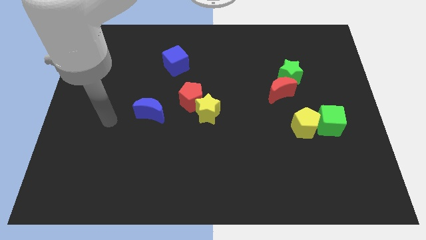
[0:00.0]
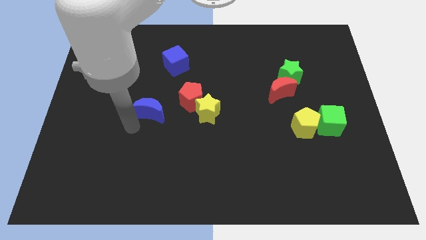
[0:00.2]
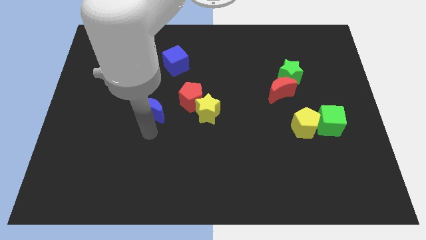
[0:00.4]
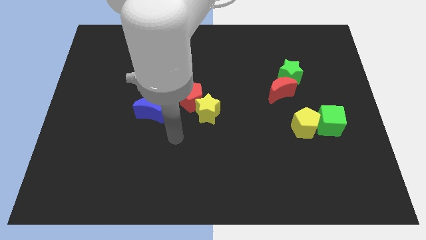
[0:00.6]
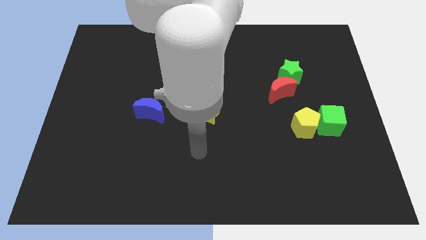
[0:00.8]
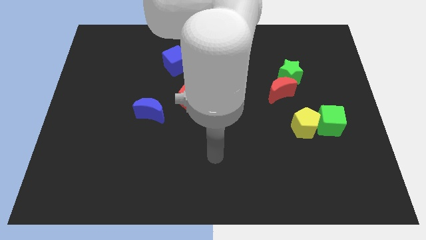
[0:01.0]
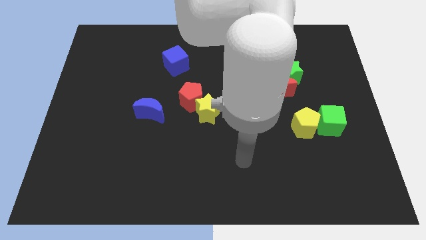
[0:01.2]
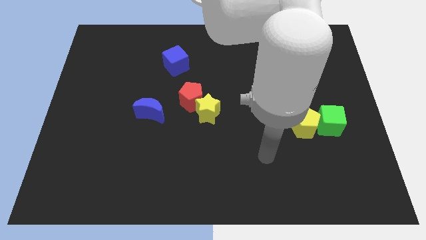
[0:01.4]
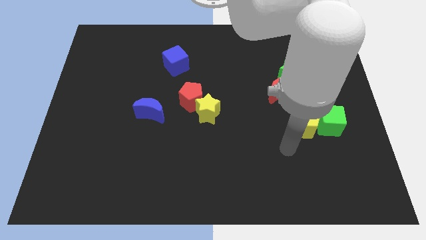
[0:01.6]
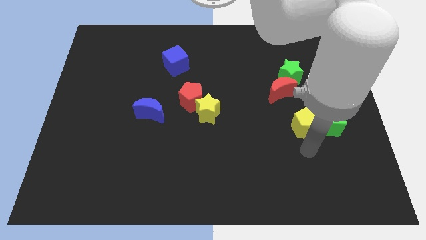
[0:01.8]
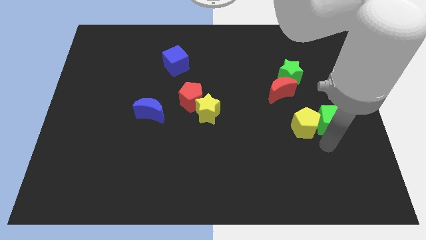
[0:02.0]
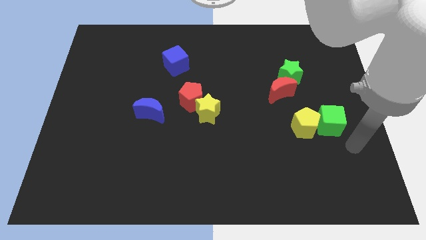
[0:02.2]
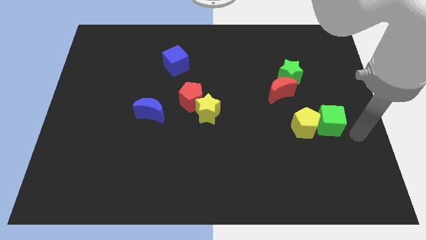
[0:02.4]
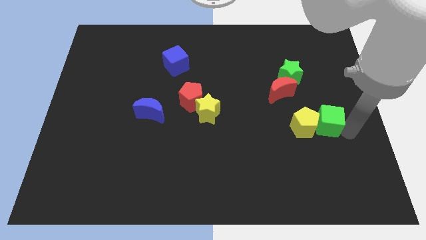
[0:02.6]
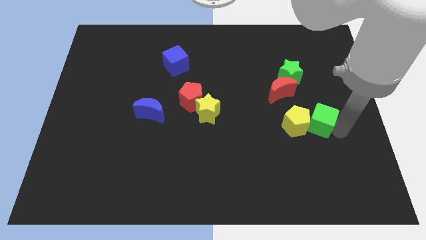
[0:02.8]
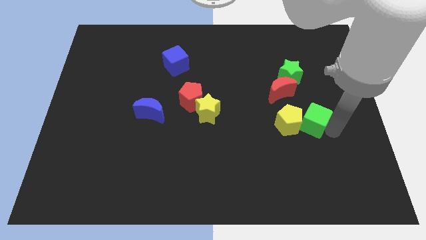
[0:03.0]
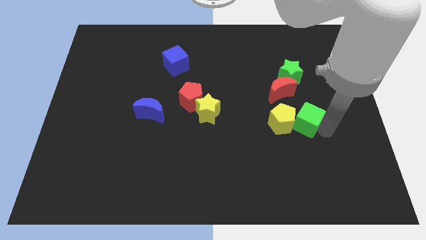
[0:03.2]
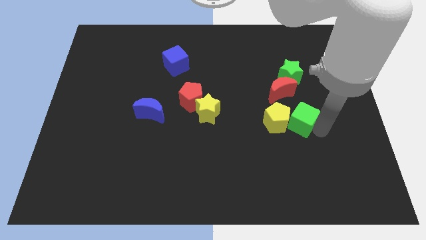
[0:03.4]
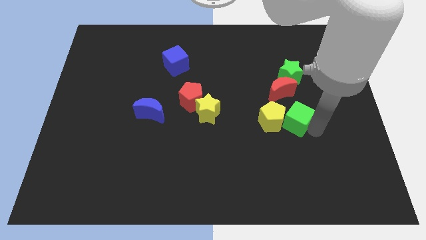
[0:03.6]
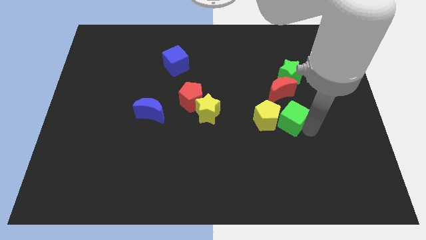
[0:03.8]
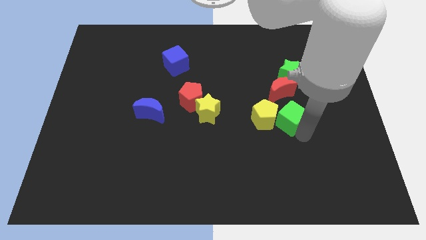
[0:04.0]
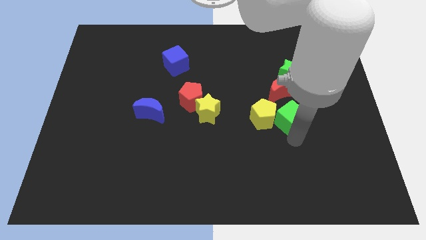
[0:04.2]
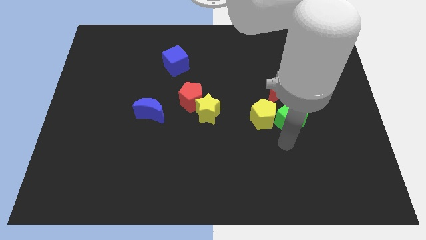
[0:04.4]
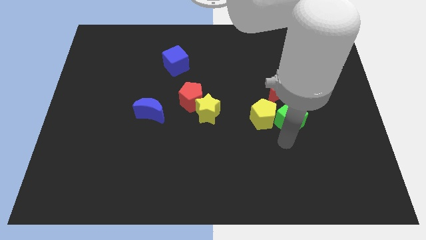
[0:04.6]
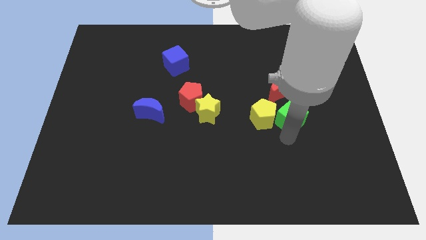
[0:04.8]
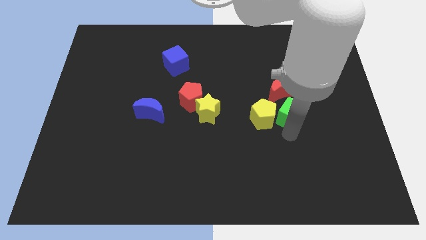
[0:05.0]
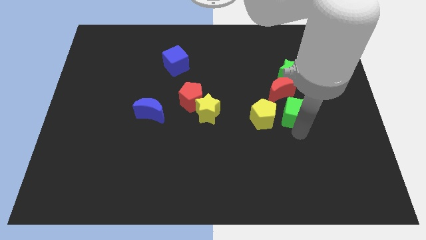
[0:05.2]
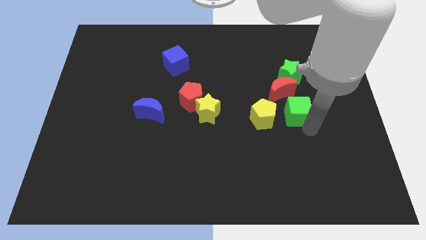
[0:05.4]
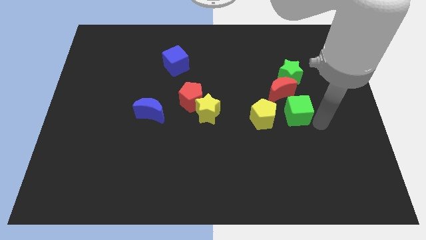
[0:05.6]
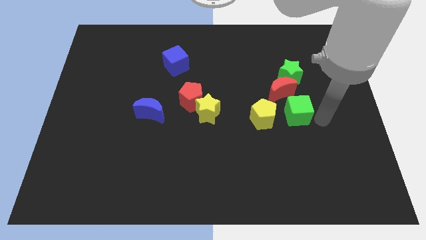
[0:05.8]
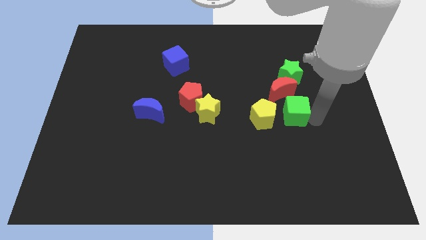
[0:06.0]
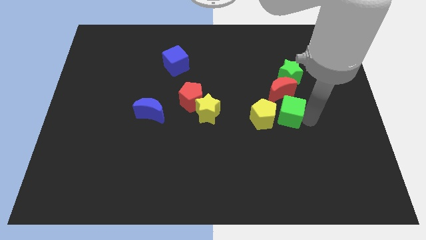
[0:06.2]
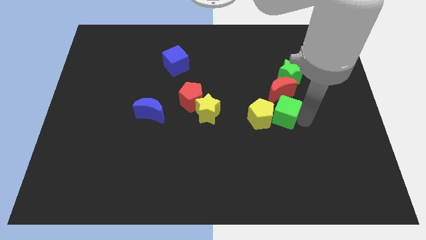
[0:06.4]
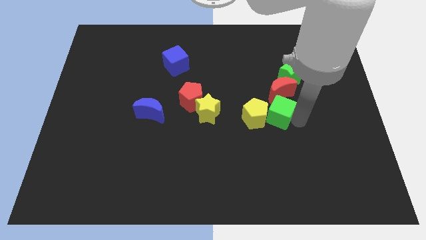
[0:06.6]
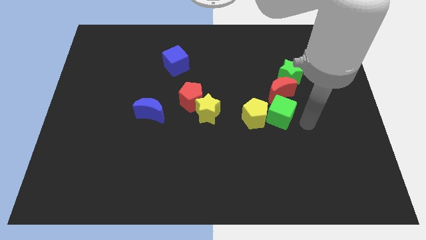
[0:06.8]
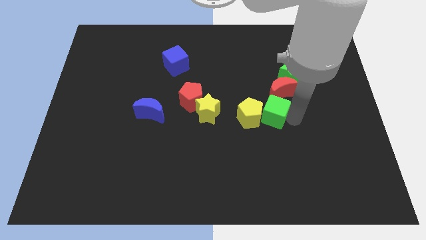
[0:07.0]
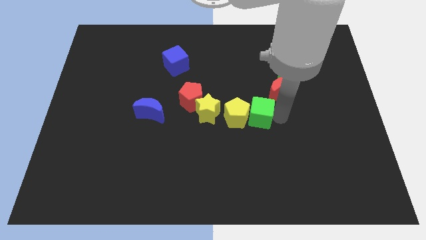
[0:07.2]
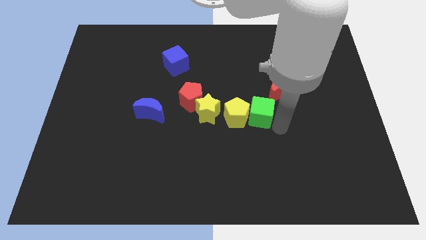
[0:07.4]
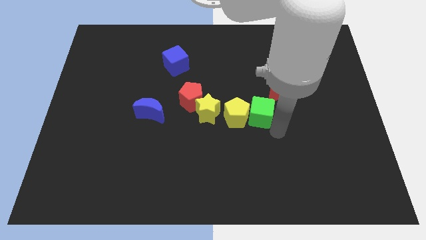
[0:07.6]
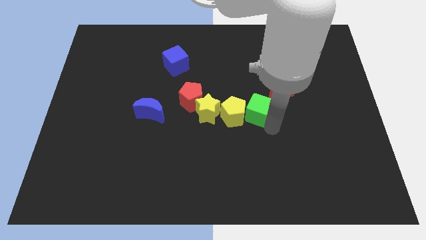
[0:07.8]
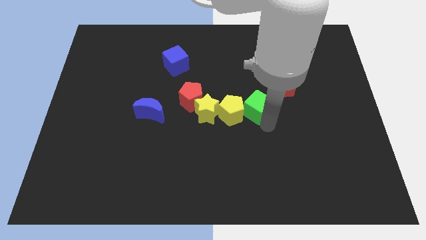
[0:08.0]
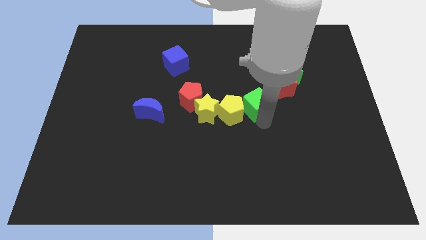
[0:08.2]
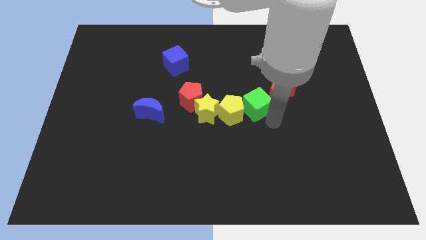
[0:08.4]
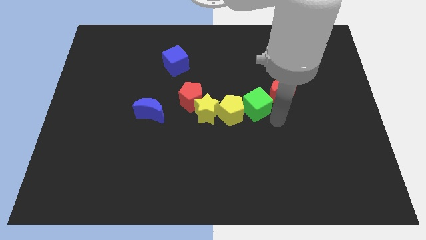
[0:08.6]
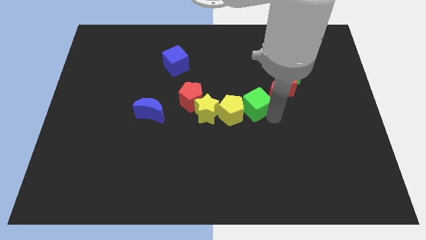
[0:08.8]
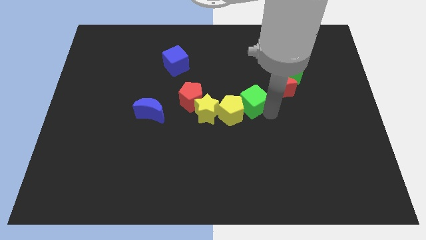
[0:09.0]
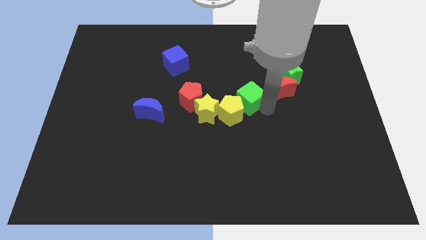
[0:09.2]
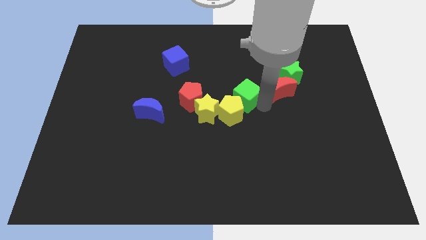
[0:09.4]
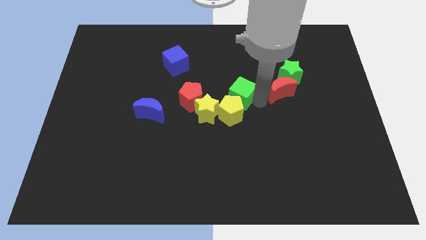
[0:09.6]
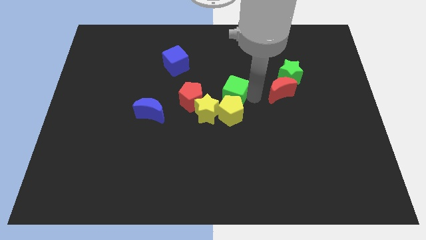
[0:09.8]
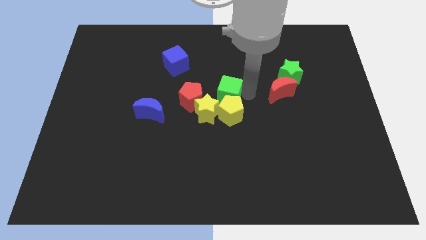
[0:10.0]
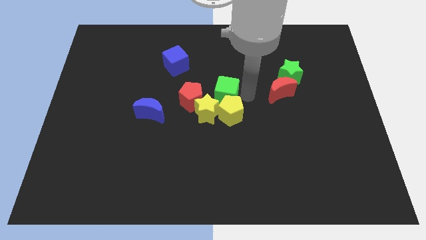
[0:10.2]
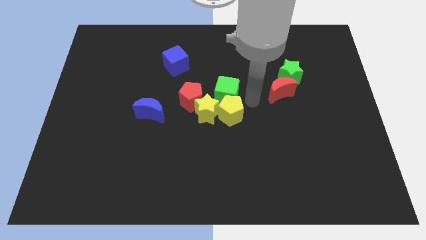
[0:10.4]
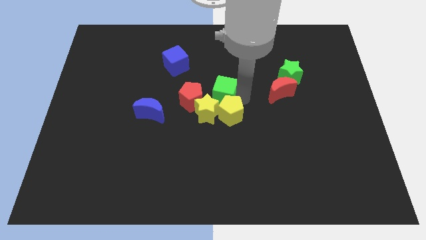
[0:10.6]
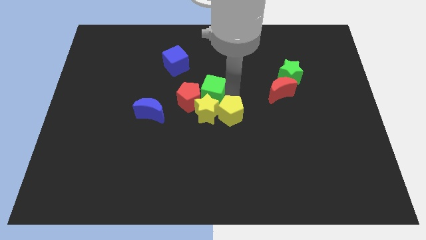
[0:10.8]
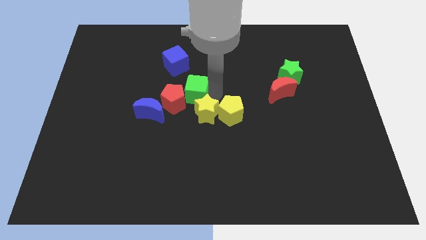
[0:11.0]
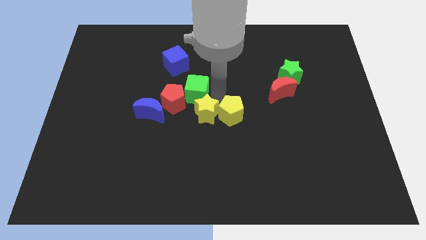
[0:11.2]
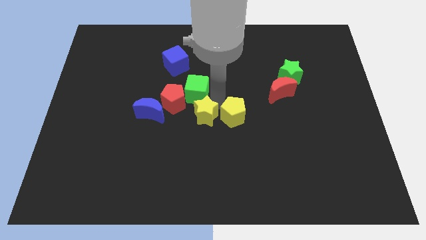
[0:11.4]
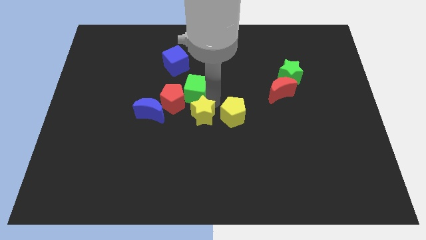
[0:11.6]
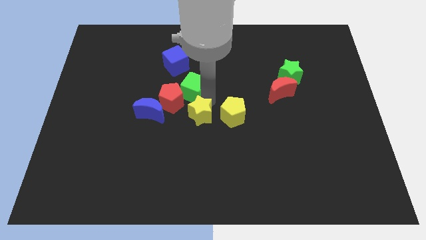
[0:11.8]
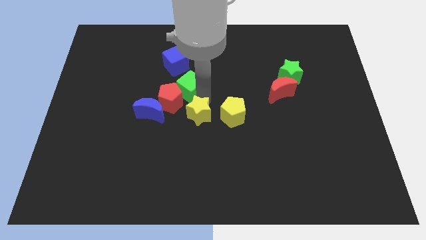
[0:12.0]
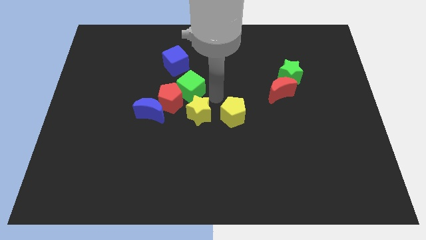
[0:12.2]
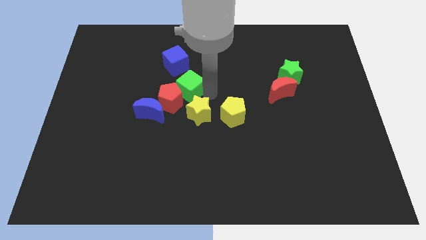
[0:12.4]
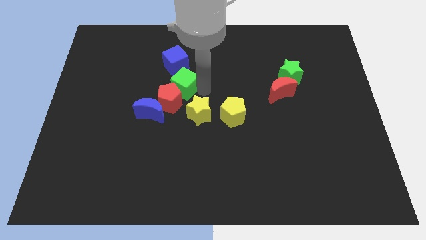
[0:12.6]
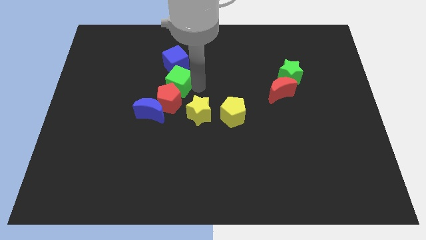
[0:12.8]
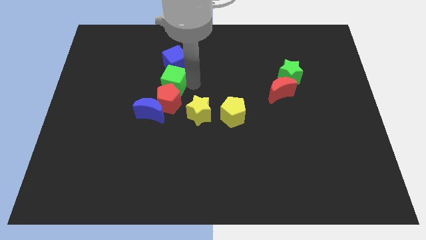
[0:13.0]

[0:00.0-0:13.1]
slide the green cube above the blue moon

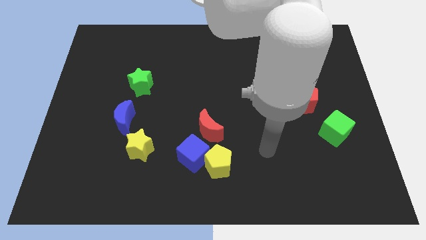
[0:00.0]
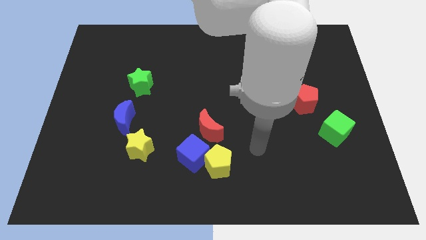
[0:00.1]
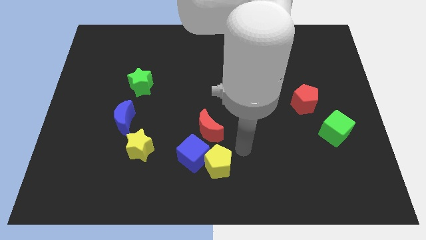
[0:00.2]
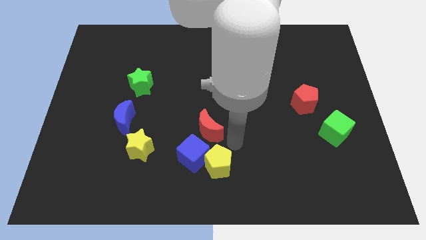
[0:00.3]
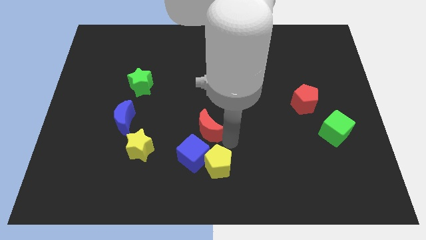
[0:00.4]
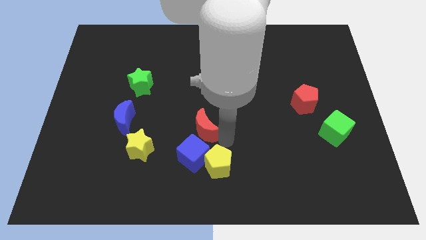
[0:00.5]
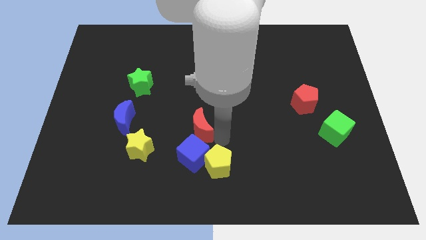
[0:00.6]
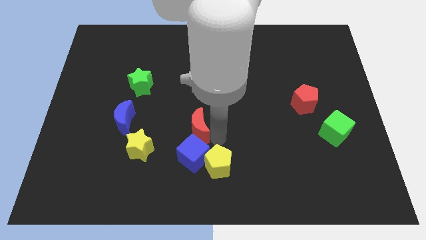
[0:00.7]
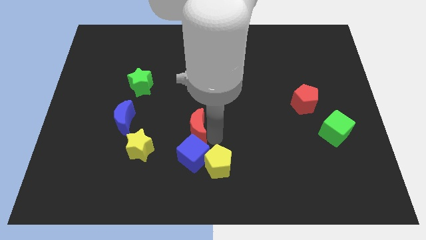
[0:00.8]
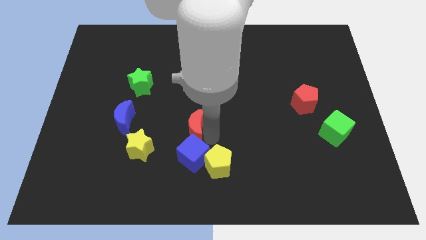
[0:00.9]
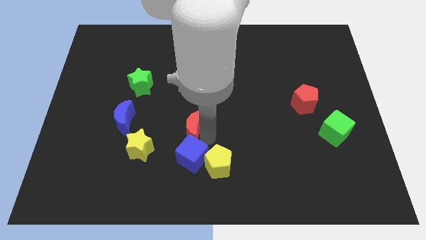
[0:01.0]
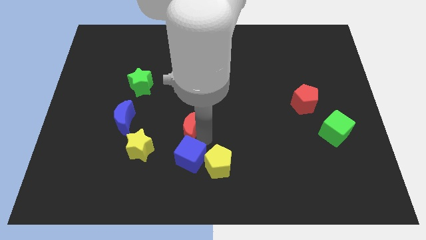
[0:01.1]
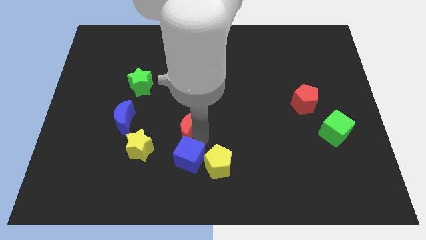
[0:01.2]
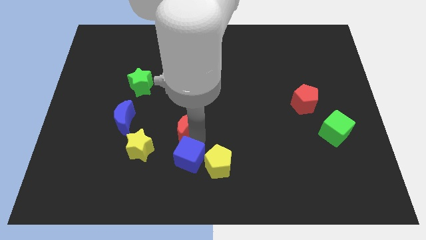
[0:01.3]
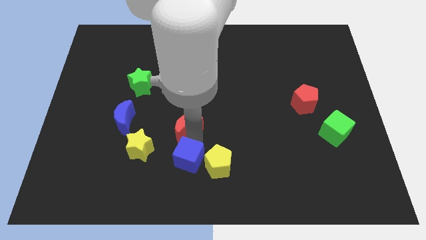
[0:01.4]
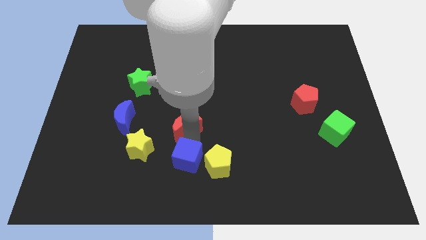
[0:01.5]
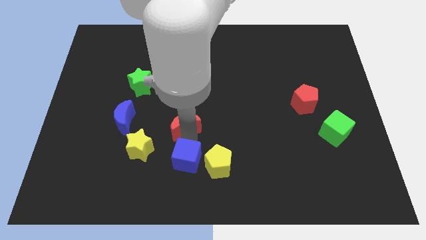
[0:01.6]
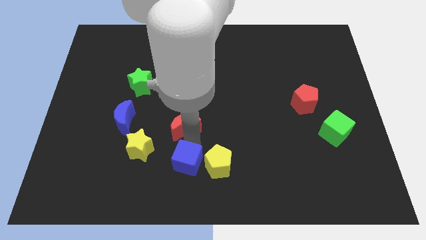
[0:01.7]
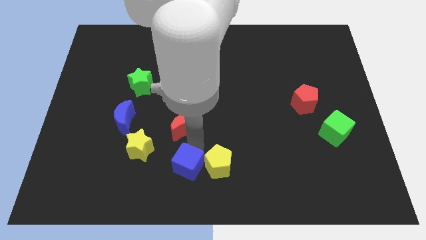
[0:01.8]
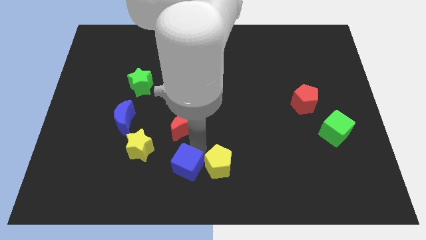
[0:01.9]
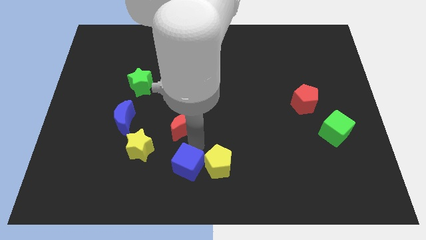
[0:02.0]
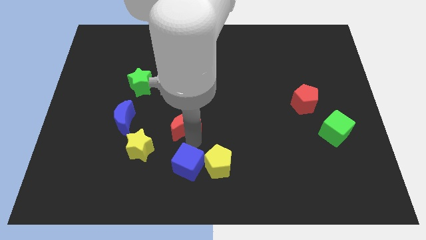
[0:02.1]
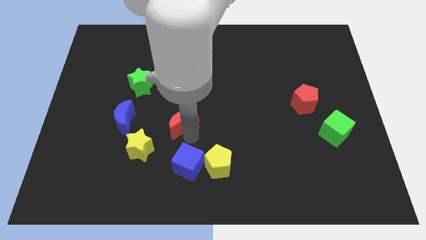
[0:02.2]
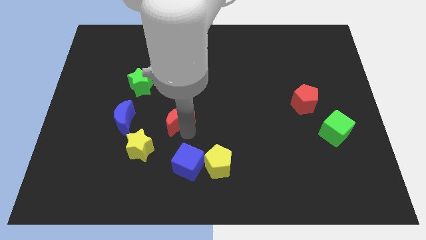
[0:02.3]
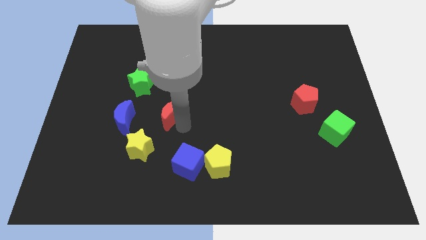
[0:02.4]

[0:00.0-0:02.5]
slide the red moon to the bottom right of the green star
